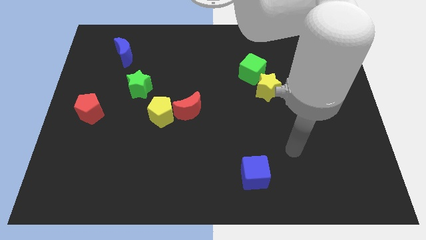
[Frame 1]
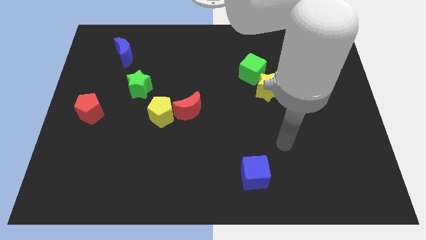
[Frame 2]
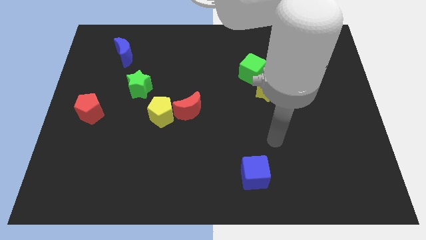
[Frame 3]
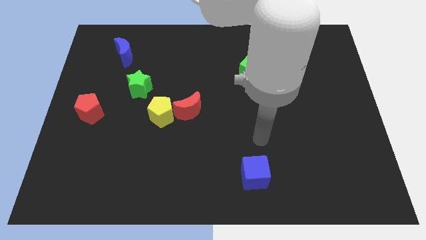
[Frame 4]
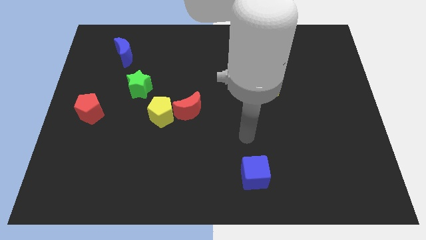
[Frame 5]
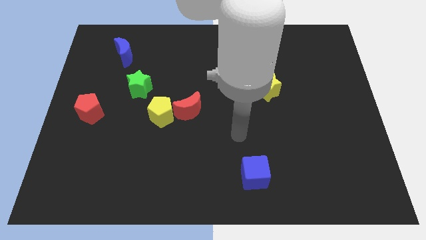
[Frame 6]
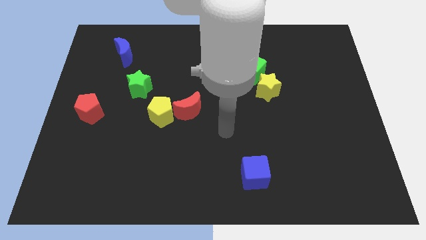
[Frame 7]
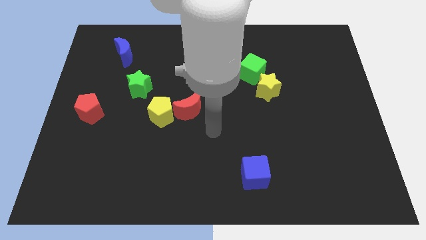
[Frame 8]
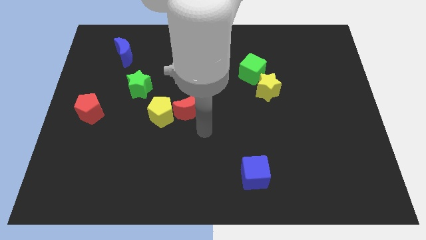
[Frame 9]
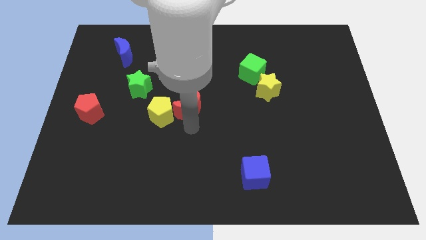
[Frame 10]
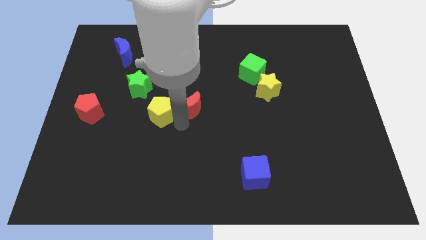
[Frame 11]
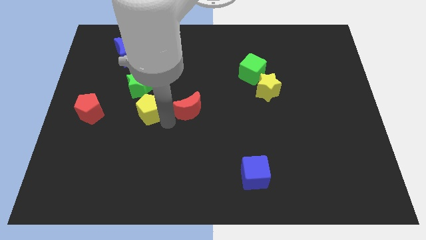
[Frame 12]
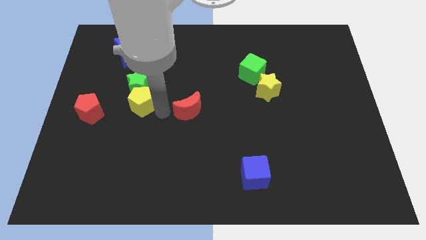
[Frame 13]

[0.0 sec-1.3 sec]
separate the red moon from the yellow pentagon

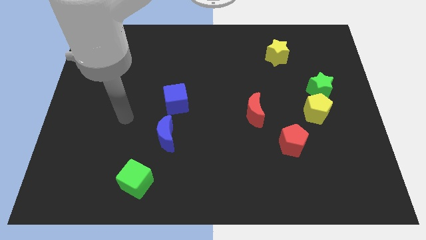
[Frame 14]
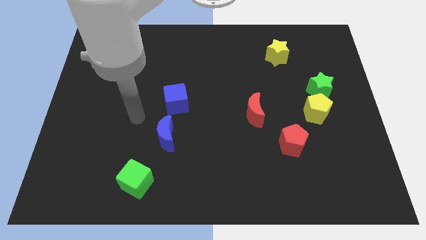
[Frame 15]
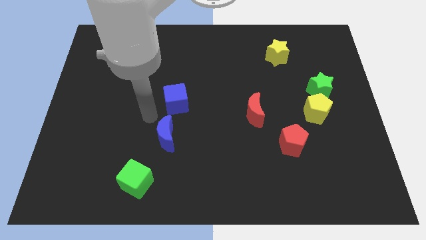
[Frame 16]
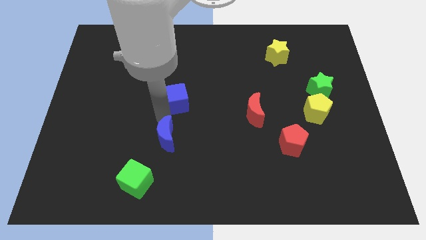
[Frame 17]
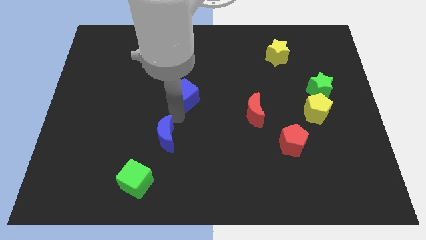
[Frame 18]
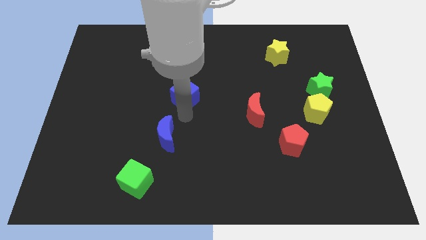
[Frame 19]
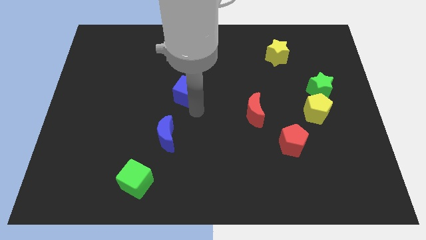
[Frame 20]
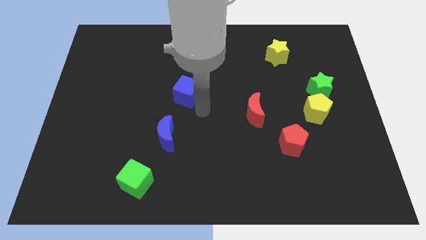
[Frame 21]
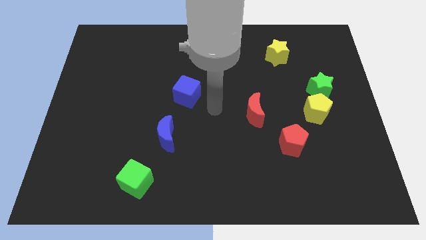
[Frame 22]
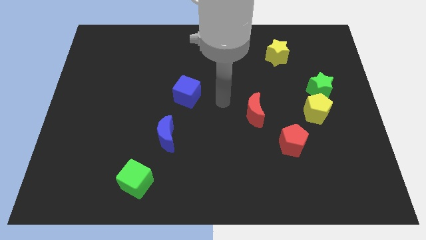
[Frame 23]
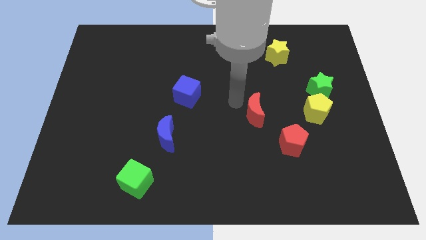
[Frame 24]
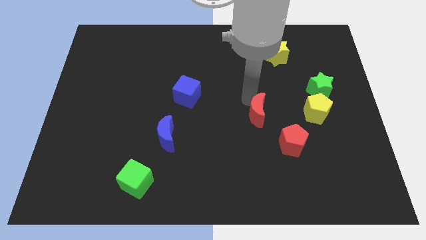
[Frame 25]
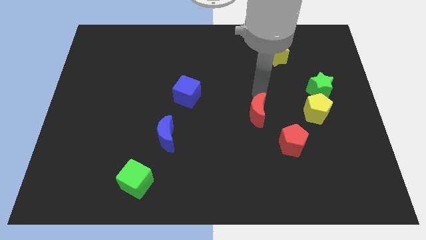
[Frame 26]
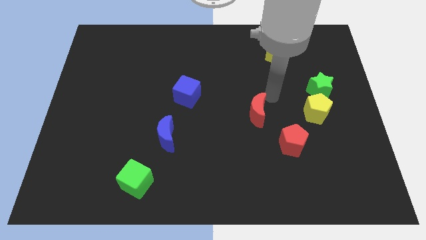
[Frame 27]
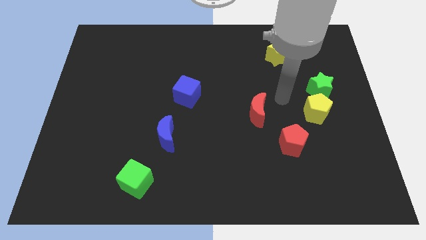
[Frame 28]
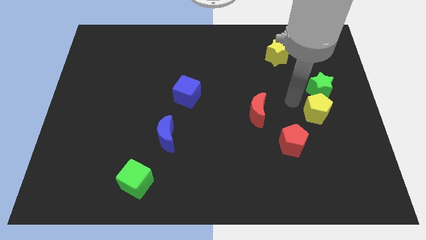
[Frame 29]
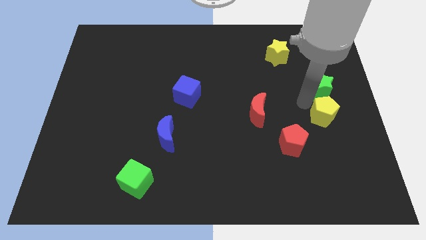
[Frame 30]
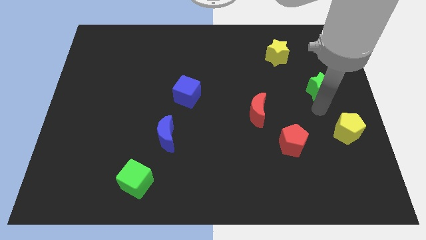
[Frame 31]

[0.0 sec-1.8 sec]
move the green star away from the yellow pentagon

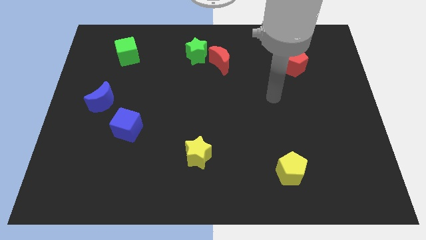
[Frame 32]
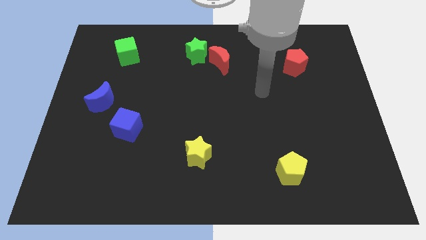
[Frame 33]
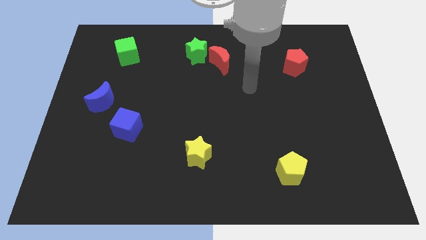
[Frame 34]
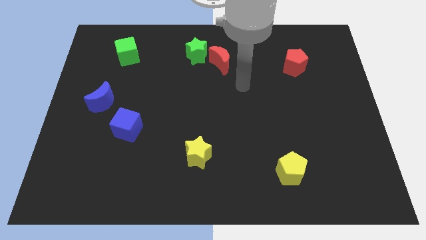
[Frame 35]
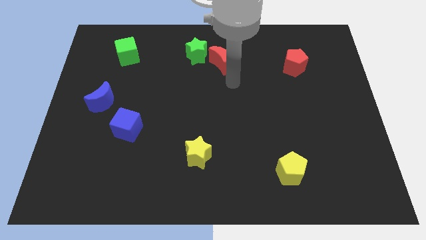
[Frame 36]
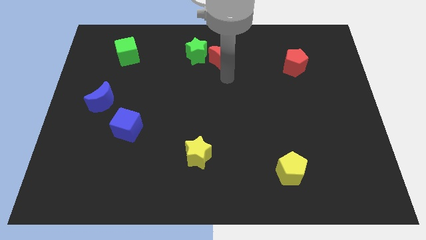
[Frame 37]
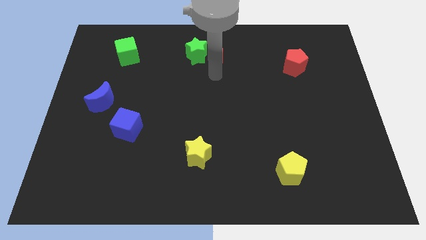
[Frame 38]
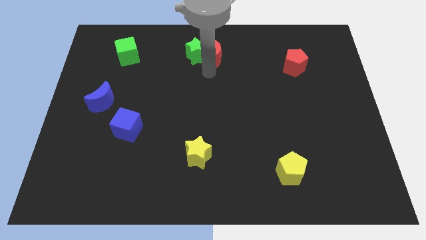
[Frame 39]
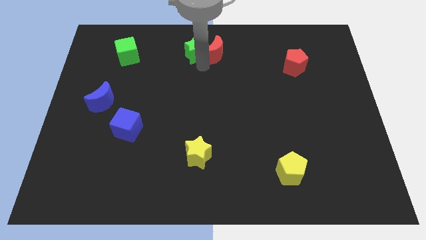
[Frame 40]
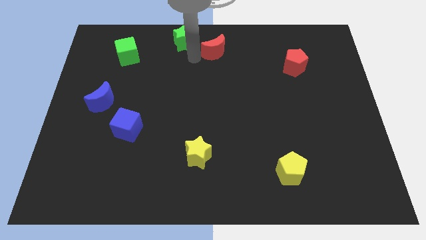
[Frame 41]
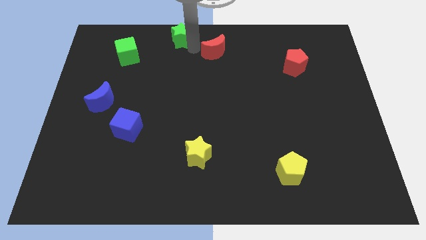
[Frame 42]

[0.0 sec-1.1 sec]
move the red moon away from the green star

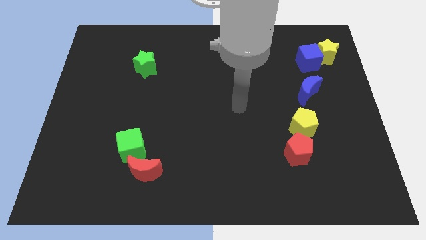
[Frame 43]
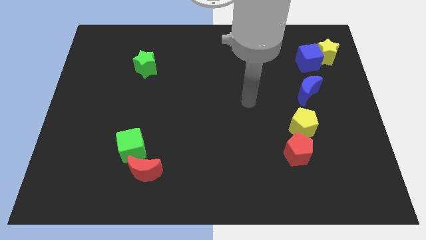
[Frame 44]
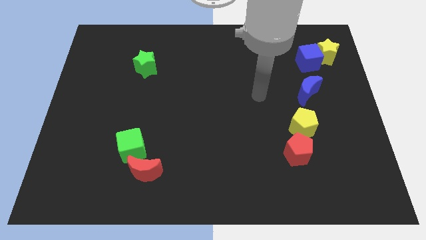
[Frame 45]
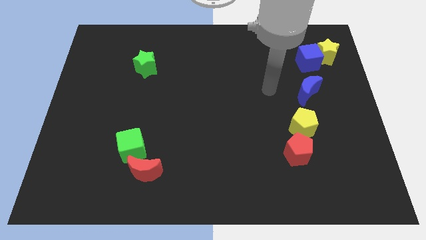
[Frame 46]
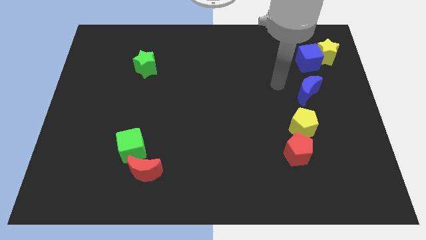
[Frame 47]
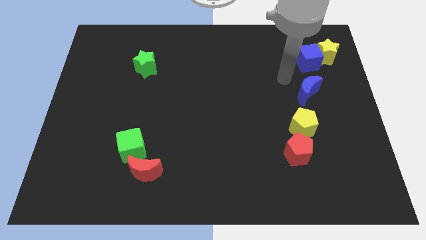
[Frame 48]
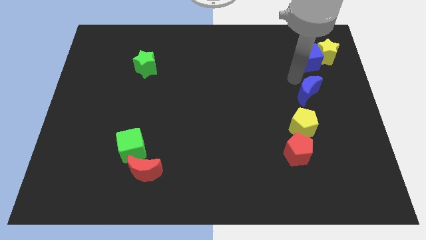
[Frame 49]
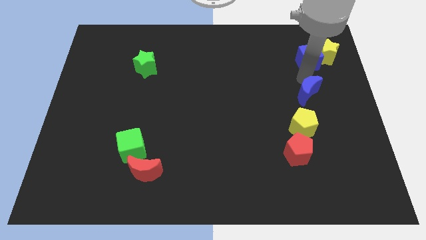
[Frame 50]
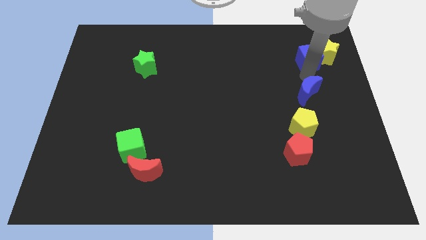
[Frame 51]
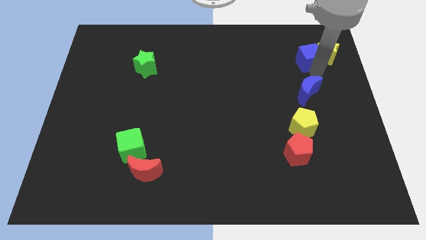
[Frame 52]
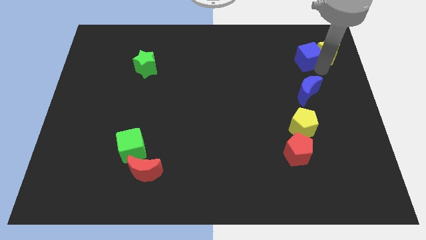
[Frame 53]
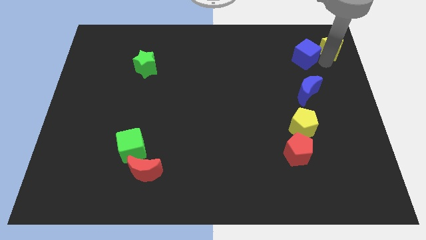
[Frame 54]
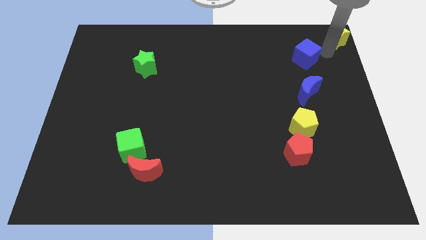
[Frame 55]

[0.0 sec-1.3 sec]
move the blue cube away from the yellow star

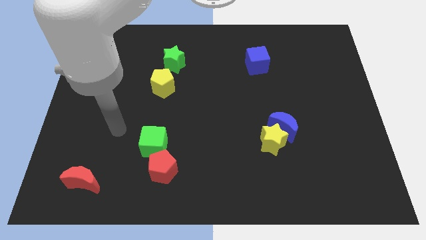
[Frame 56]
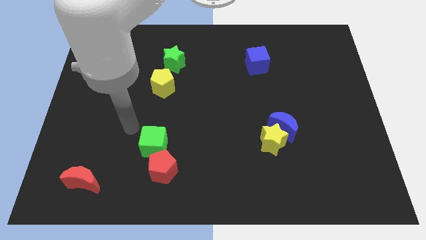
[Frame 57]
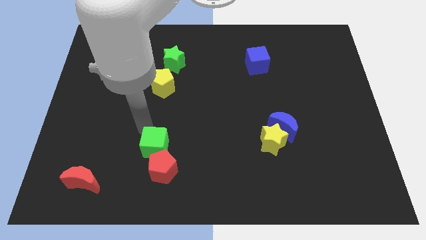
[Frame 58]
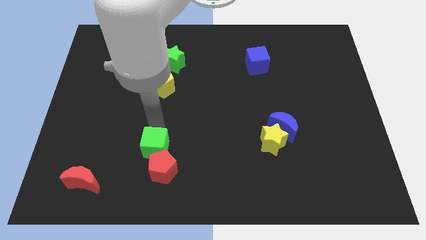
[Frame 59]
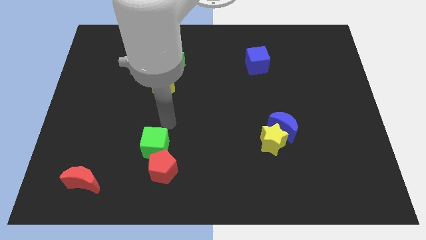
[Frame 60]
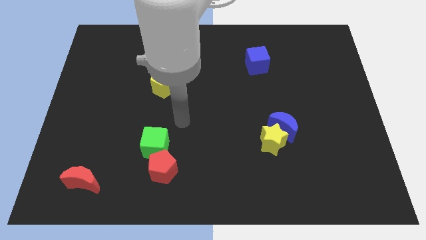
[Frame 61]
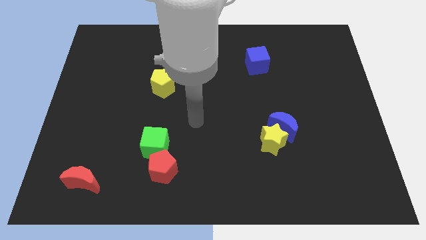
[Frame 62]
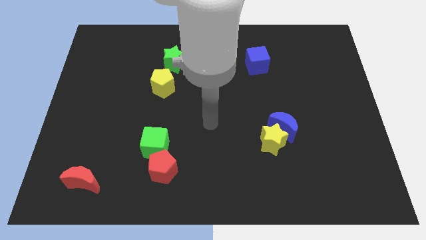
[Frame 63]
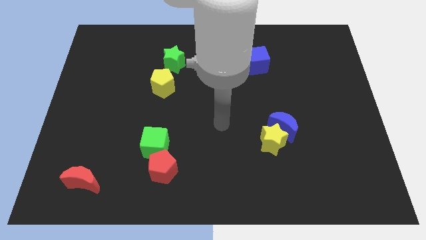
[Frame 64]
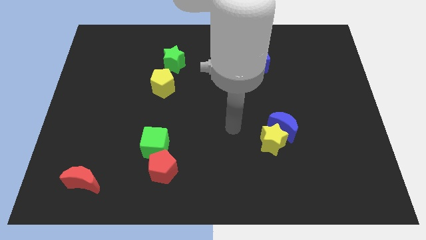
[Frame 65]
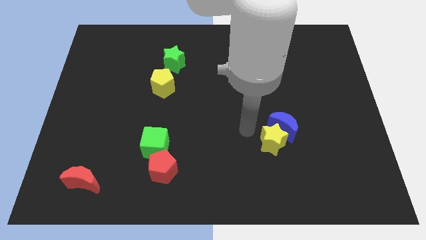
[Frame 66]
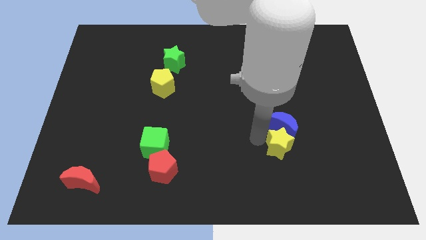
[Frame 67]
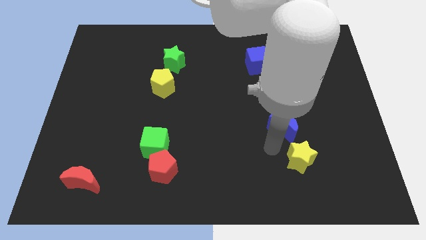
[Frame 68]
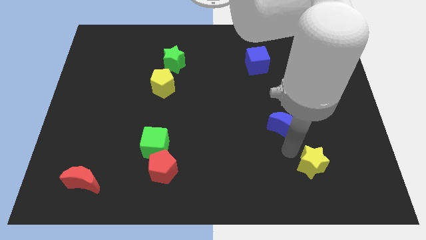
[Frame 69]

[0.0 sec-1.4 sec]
pull the blue moon apart from the yellow star

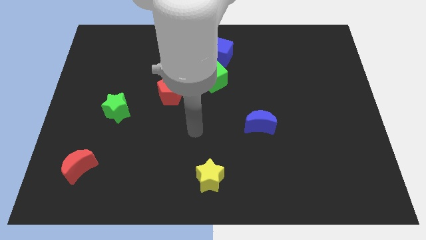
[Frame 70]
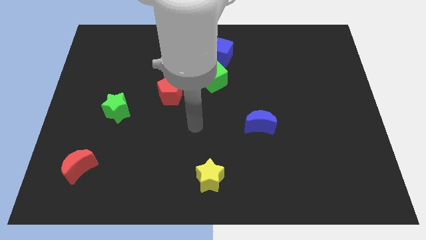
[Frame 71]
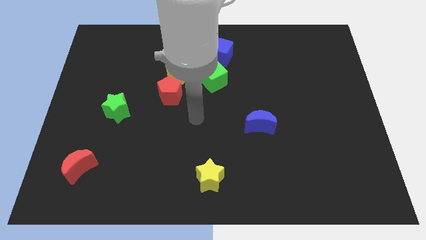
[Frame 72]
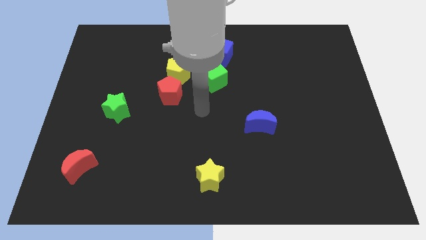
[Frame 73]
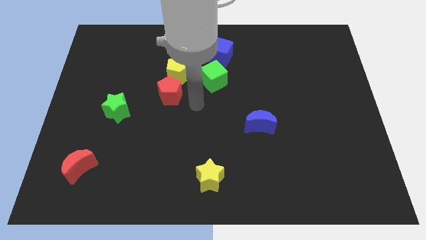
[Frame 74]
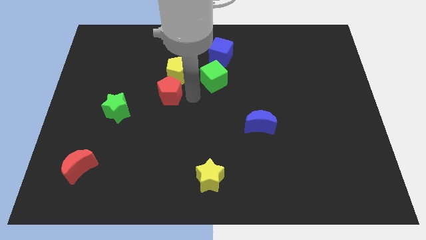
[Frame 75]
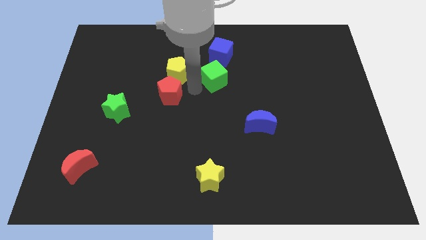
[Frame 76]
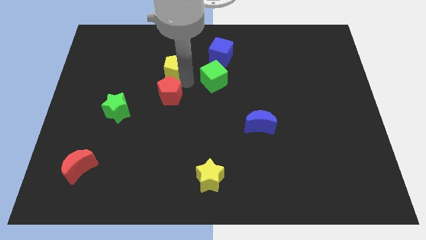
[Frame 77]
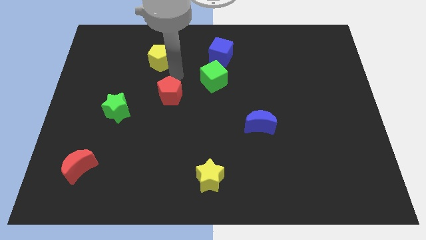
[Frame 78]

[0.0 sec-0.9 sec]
separate the red pentagon from the yellow pentagon

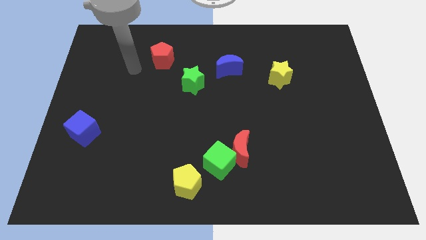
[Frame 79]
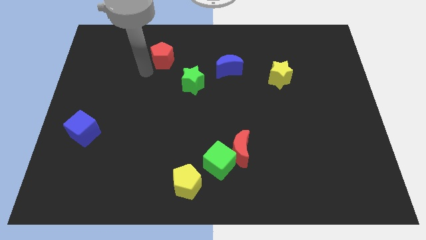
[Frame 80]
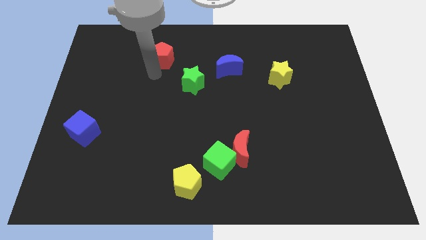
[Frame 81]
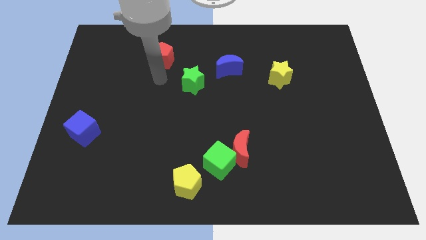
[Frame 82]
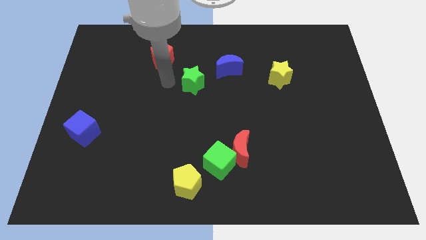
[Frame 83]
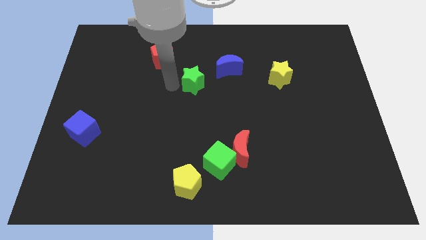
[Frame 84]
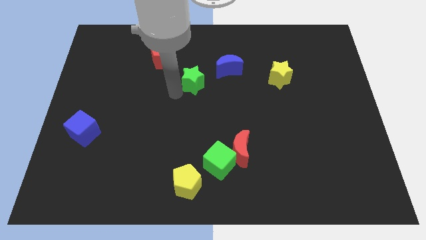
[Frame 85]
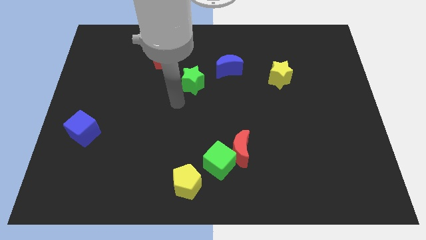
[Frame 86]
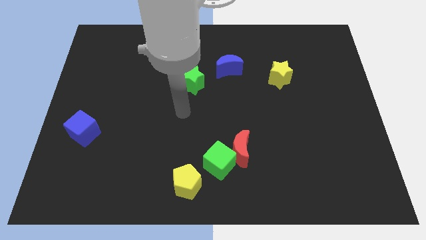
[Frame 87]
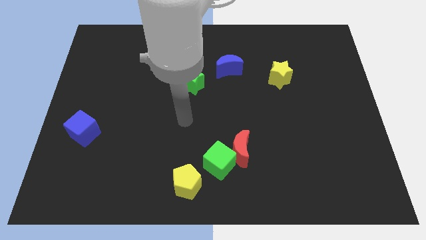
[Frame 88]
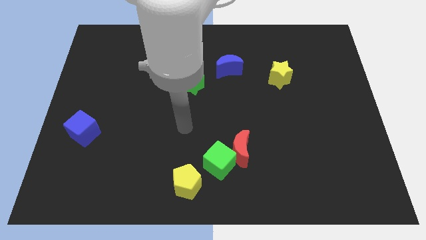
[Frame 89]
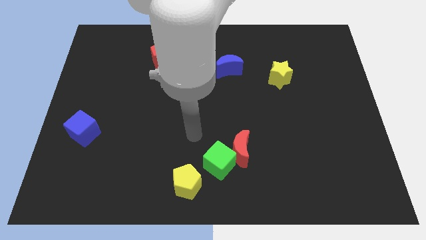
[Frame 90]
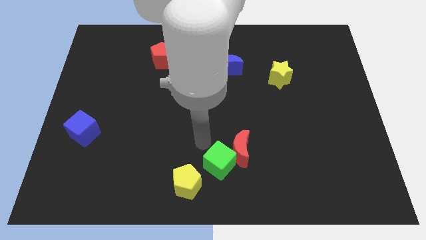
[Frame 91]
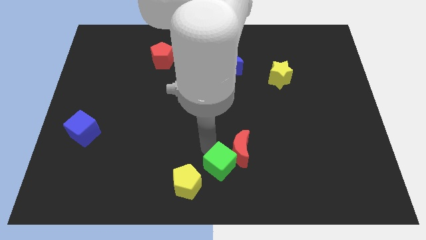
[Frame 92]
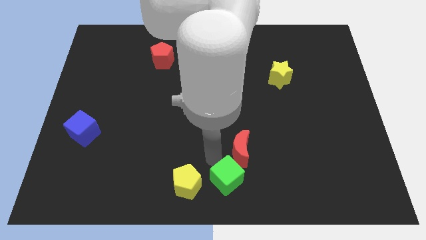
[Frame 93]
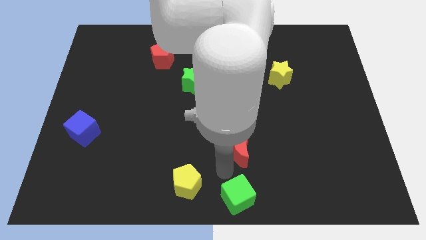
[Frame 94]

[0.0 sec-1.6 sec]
pull the red moon apart from the green cube
